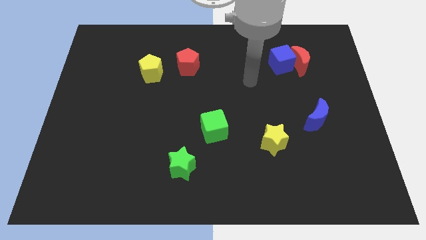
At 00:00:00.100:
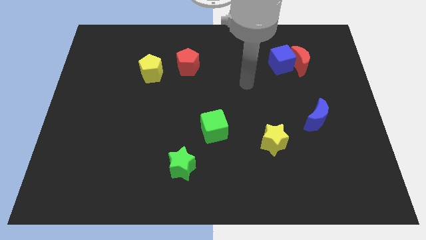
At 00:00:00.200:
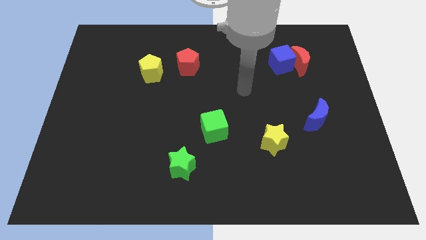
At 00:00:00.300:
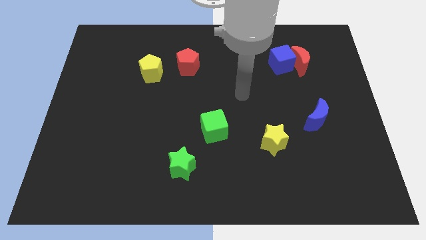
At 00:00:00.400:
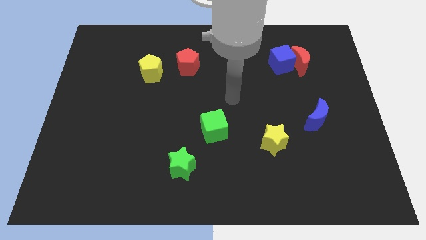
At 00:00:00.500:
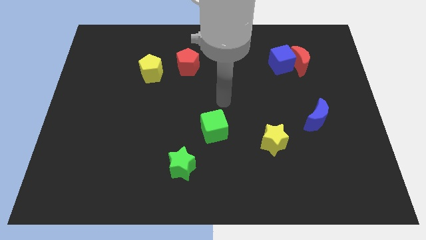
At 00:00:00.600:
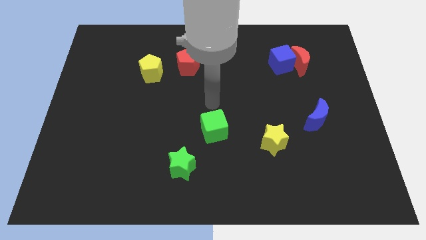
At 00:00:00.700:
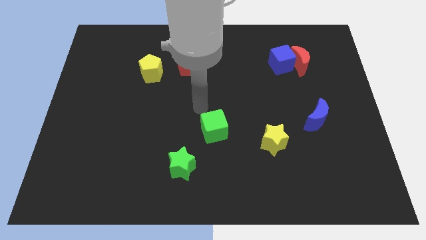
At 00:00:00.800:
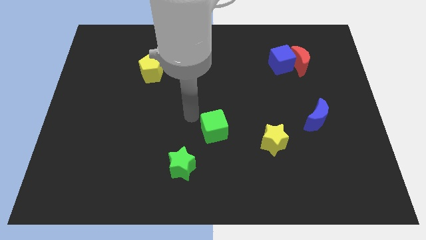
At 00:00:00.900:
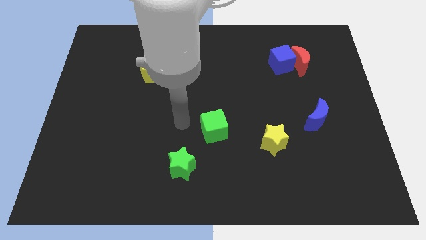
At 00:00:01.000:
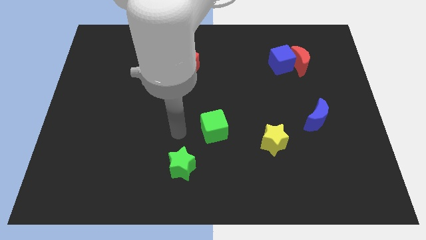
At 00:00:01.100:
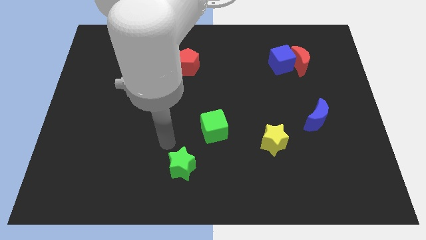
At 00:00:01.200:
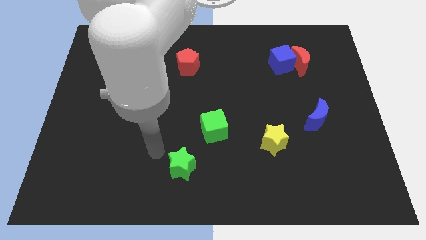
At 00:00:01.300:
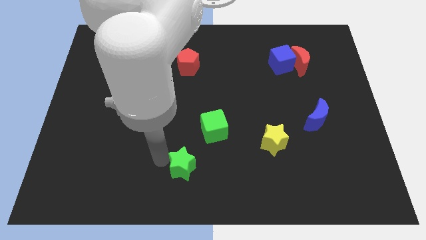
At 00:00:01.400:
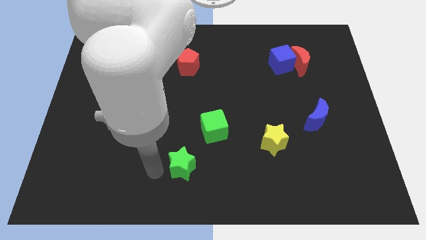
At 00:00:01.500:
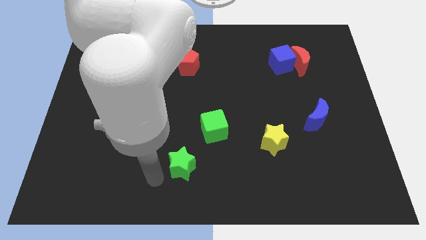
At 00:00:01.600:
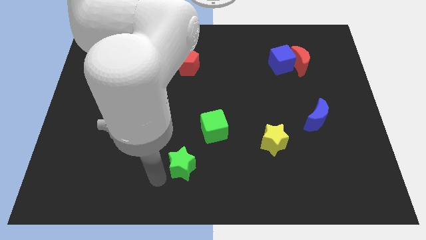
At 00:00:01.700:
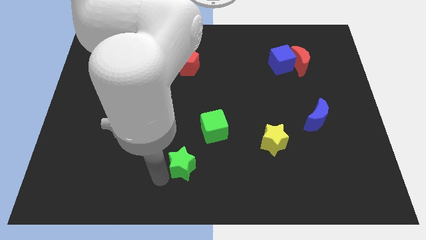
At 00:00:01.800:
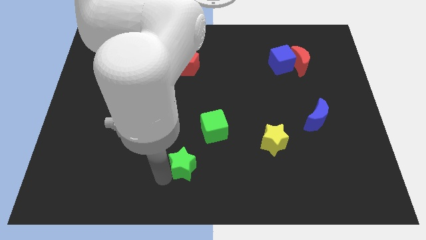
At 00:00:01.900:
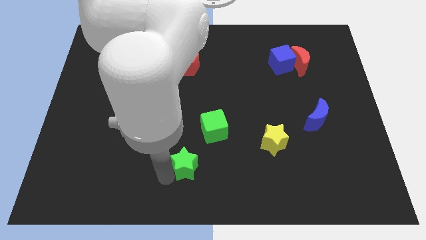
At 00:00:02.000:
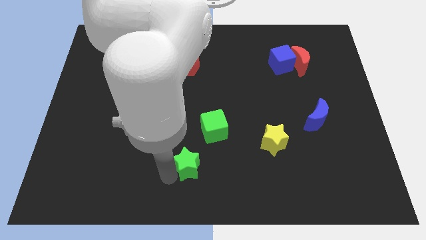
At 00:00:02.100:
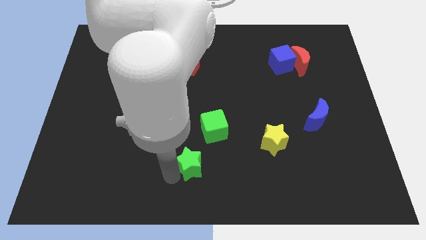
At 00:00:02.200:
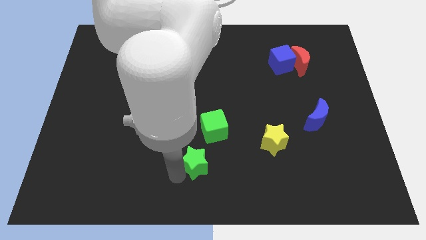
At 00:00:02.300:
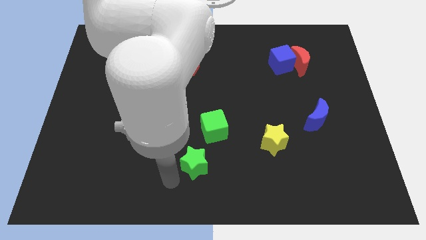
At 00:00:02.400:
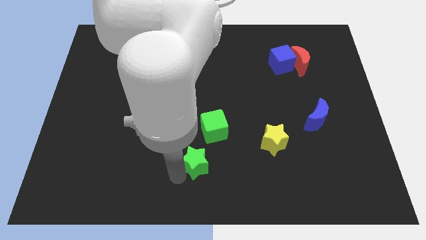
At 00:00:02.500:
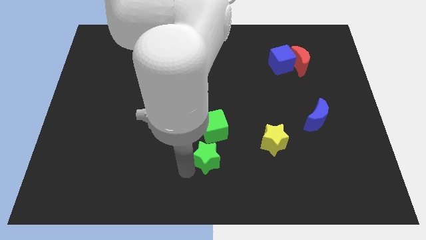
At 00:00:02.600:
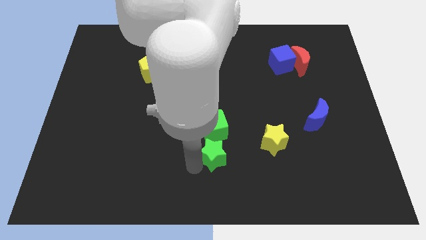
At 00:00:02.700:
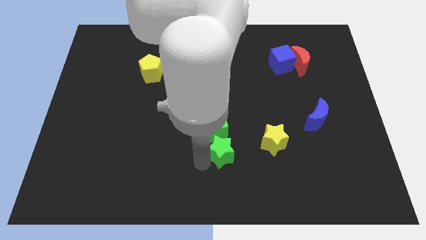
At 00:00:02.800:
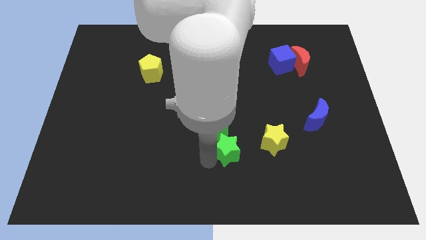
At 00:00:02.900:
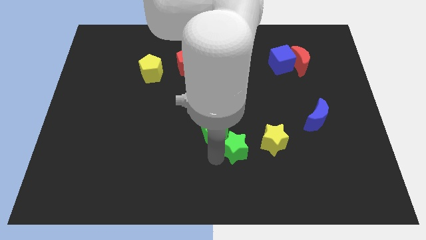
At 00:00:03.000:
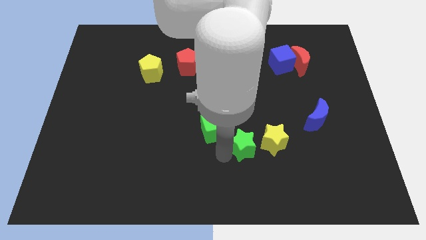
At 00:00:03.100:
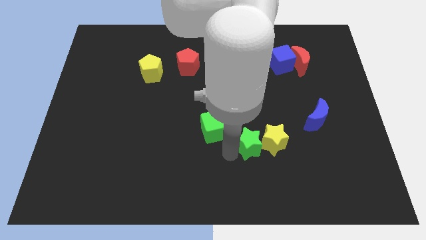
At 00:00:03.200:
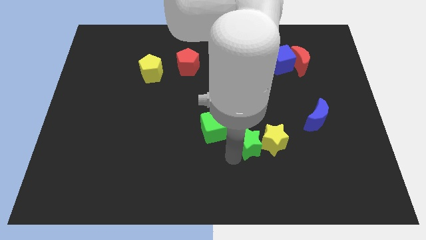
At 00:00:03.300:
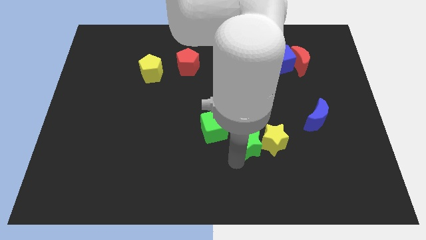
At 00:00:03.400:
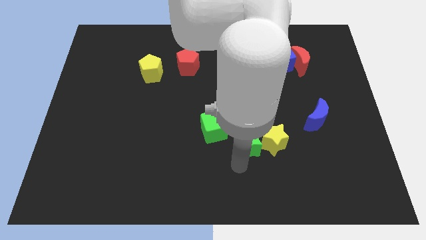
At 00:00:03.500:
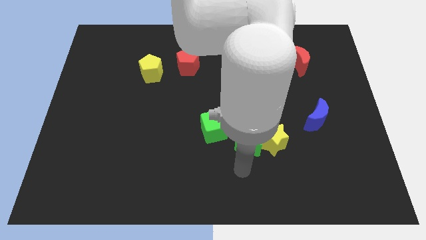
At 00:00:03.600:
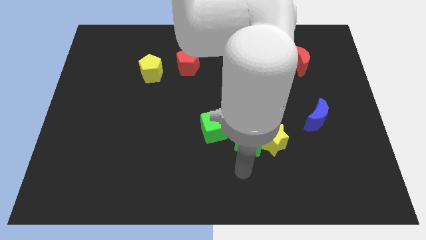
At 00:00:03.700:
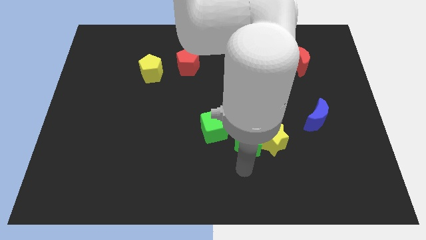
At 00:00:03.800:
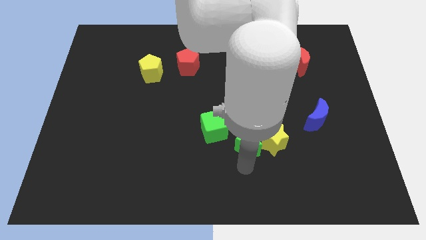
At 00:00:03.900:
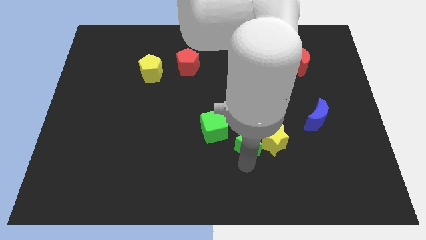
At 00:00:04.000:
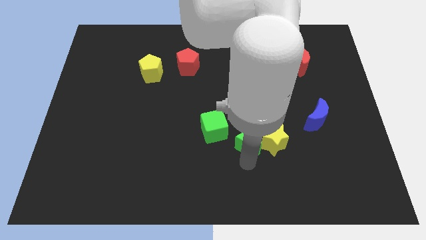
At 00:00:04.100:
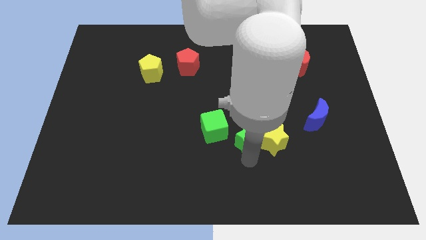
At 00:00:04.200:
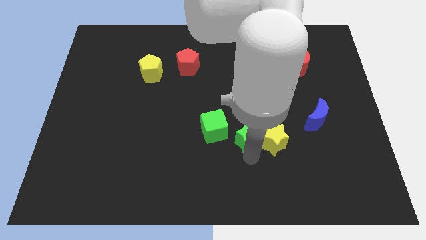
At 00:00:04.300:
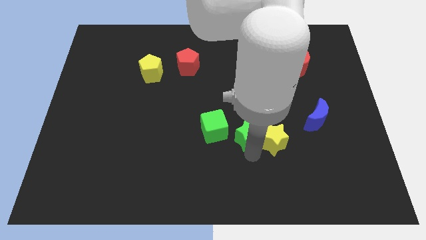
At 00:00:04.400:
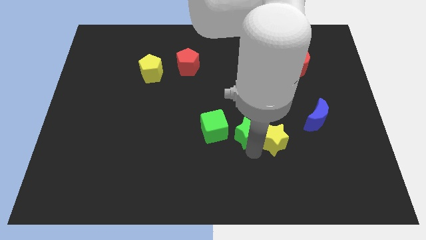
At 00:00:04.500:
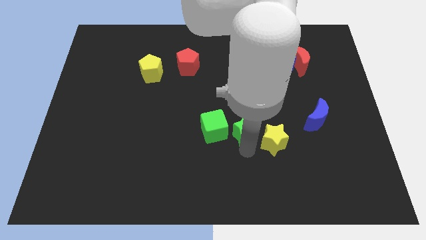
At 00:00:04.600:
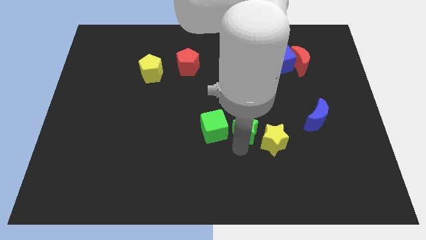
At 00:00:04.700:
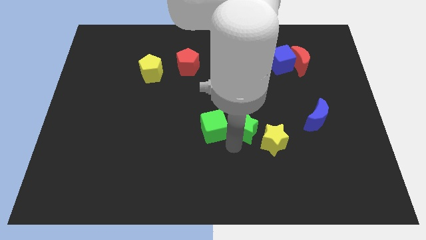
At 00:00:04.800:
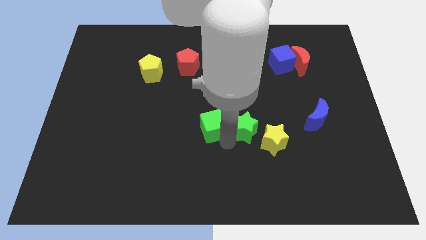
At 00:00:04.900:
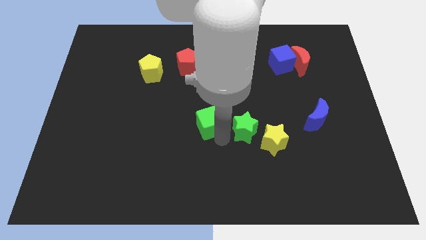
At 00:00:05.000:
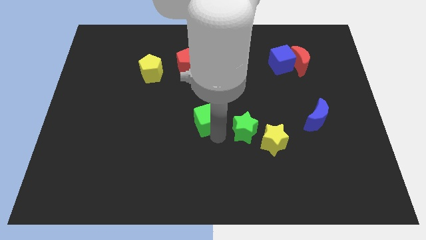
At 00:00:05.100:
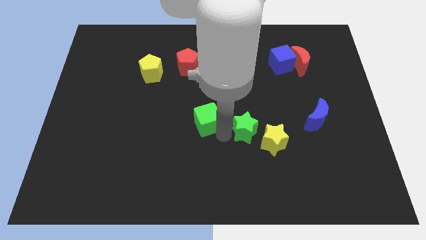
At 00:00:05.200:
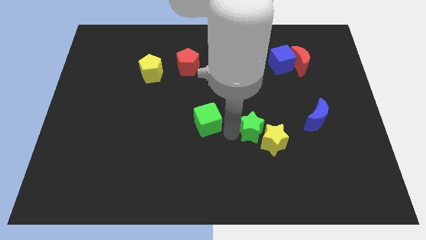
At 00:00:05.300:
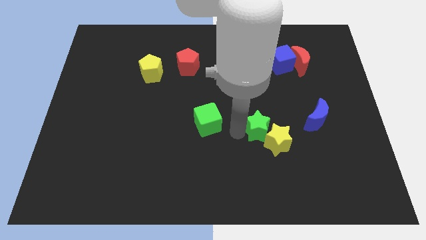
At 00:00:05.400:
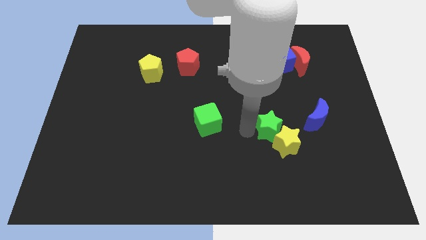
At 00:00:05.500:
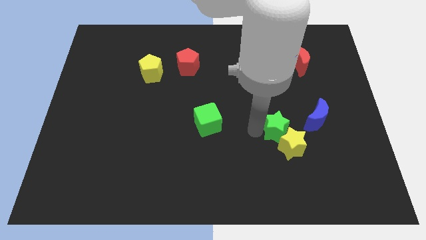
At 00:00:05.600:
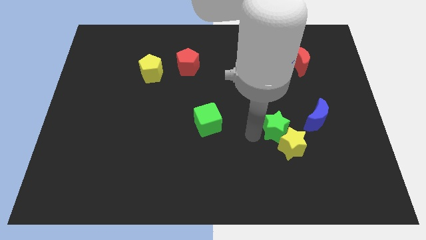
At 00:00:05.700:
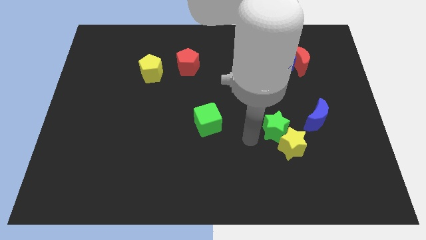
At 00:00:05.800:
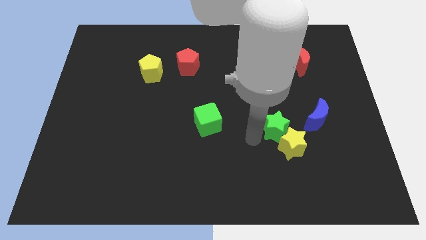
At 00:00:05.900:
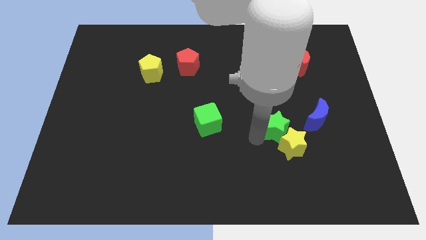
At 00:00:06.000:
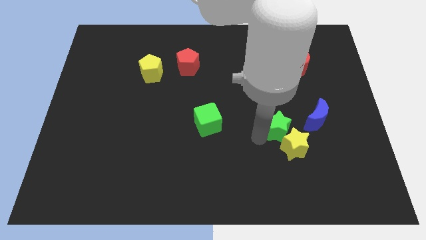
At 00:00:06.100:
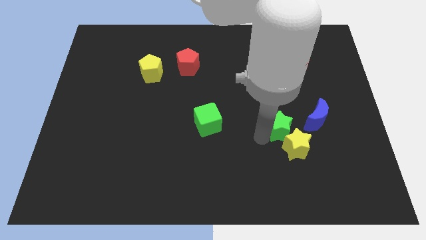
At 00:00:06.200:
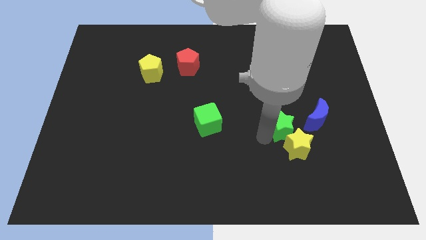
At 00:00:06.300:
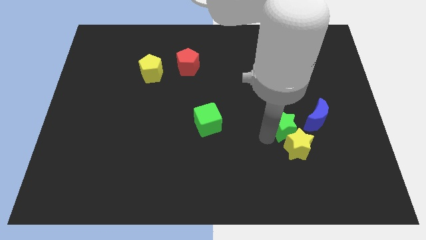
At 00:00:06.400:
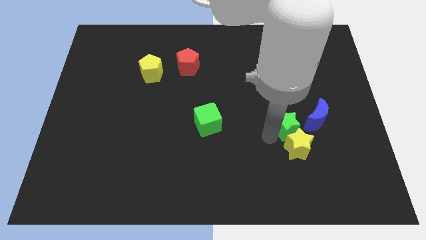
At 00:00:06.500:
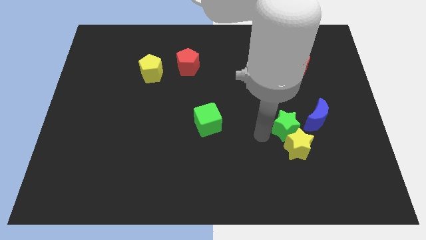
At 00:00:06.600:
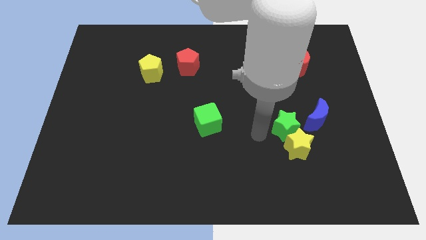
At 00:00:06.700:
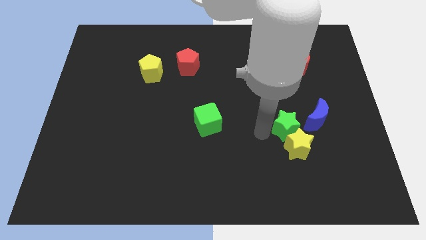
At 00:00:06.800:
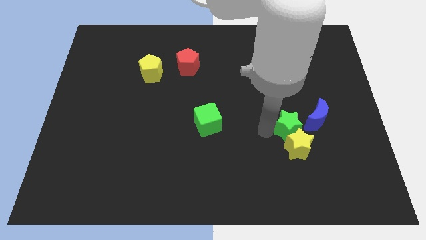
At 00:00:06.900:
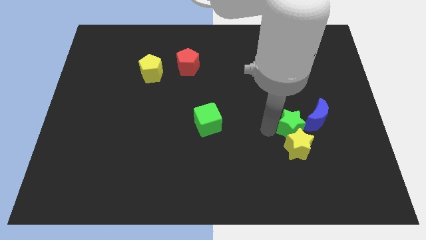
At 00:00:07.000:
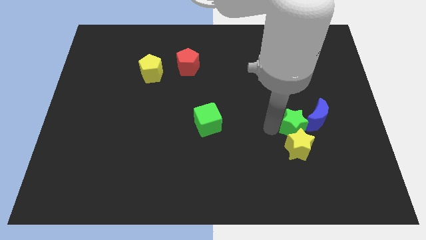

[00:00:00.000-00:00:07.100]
move the green star close to the blue moon
